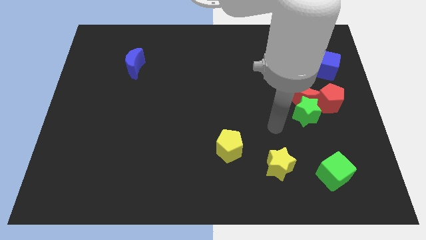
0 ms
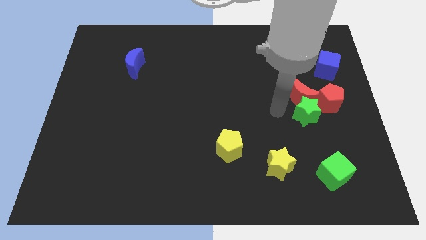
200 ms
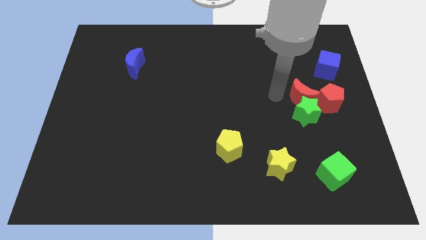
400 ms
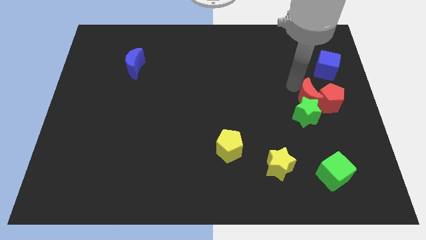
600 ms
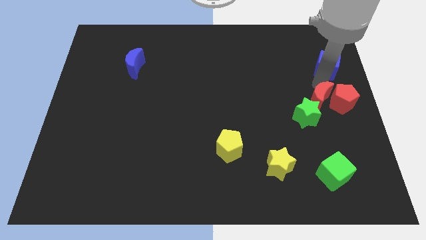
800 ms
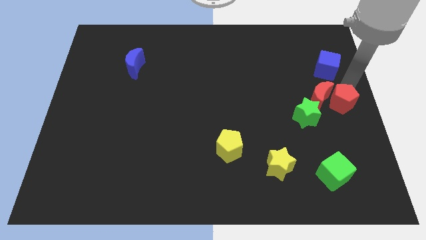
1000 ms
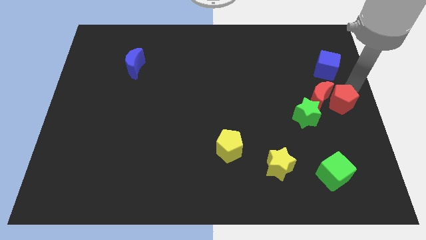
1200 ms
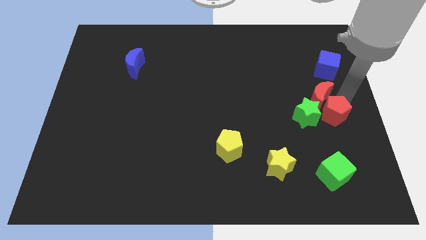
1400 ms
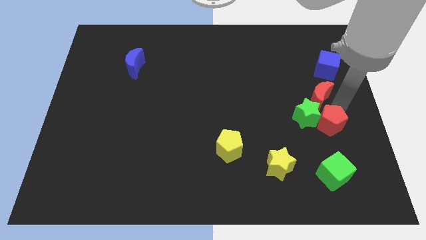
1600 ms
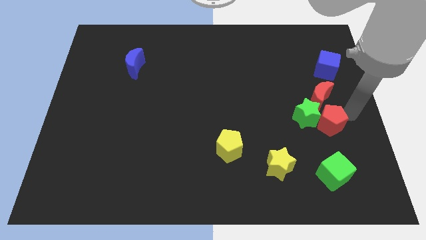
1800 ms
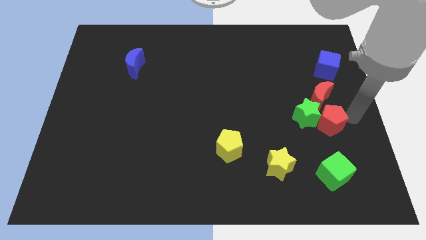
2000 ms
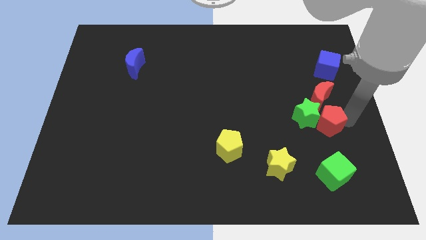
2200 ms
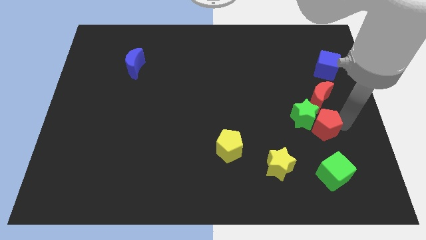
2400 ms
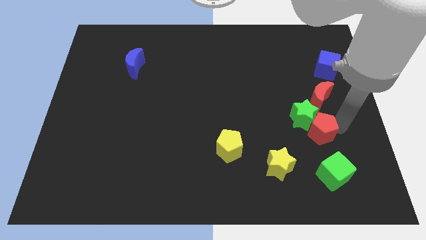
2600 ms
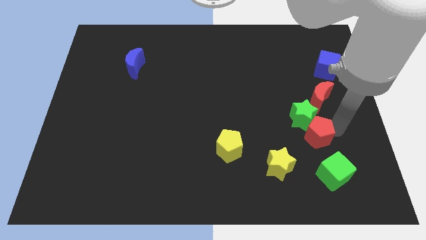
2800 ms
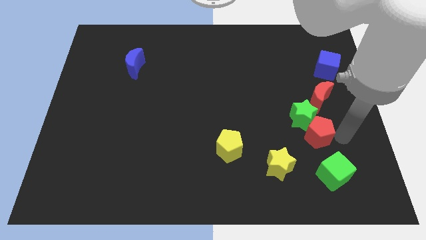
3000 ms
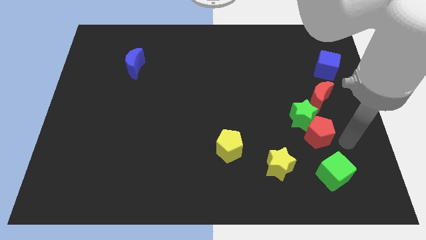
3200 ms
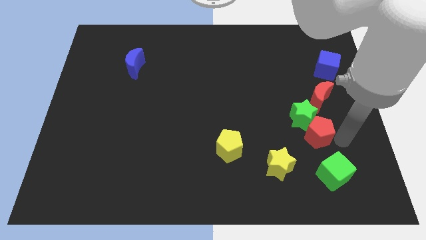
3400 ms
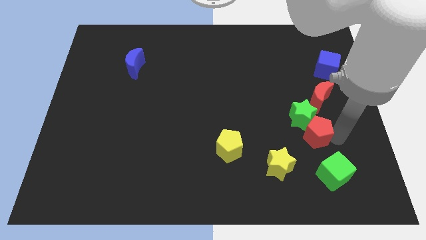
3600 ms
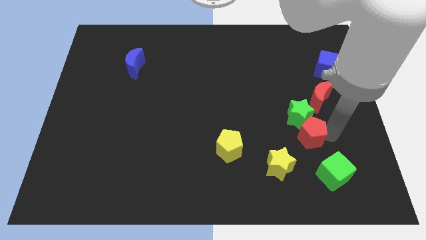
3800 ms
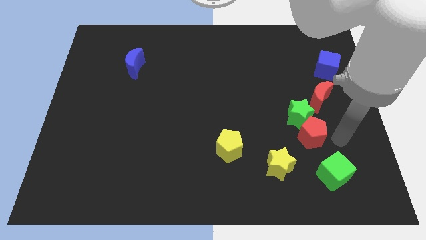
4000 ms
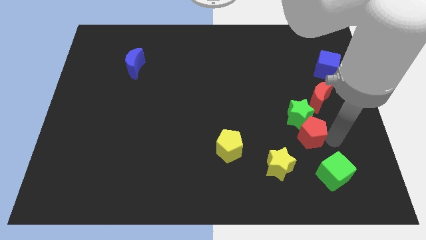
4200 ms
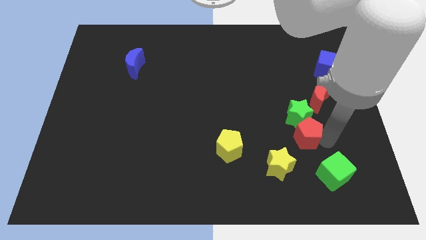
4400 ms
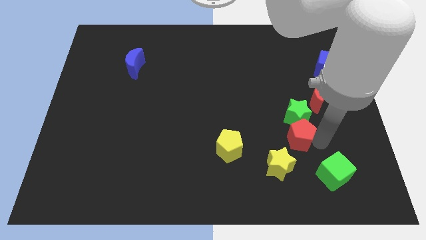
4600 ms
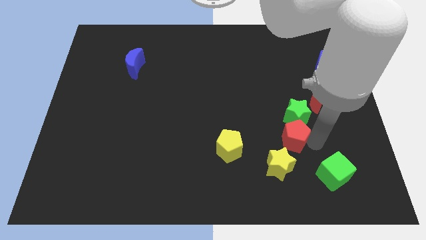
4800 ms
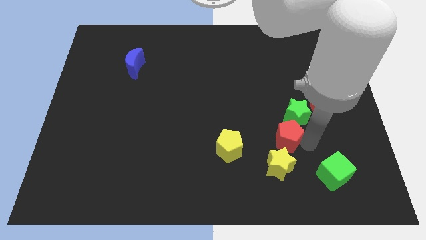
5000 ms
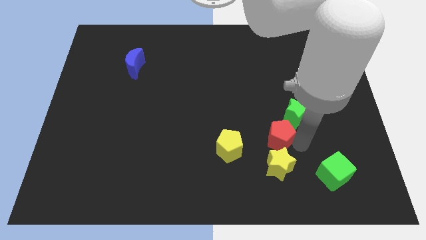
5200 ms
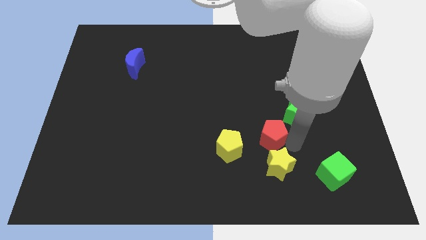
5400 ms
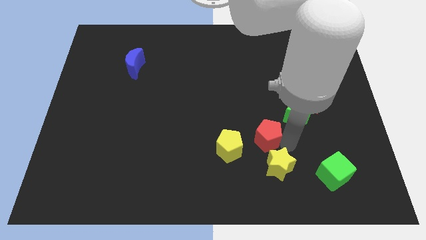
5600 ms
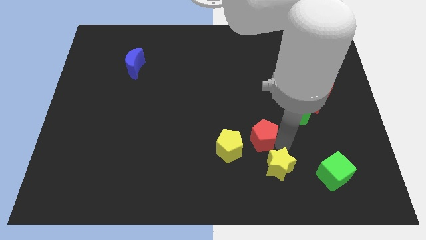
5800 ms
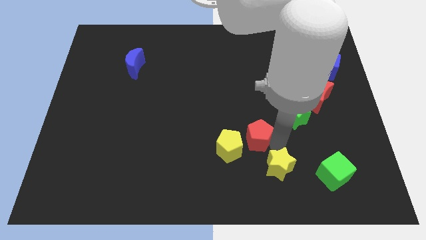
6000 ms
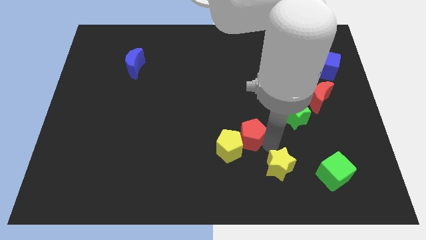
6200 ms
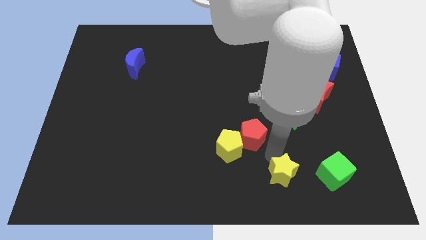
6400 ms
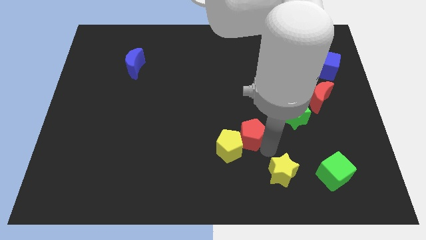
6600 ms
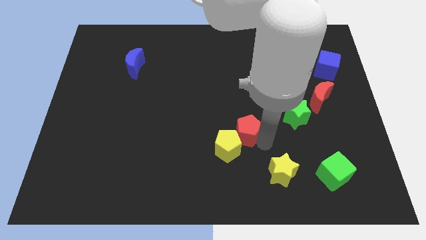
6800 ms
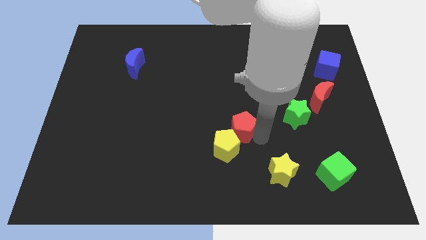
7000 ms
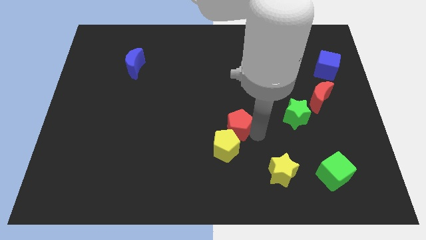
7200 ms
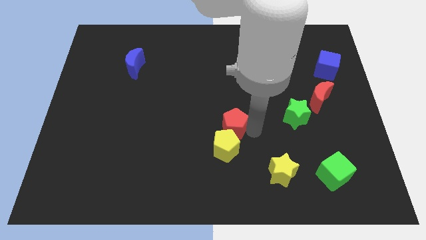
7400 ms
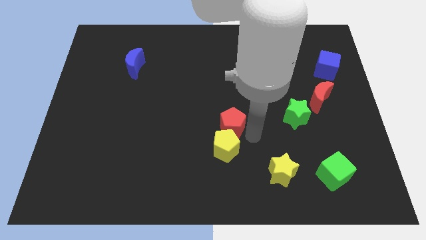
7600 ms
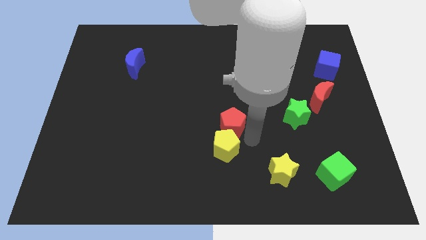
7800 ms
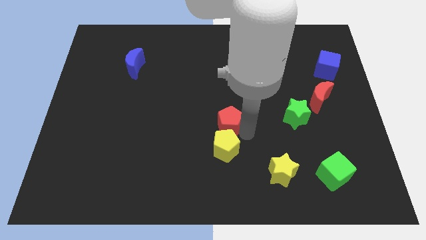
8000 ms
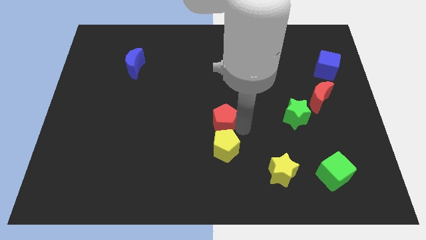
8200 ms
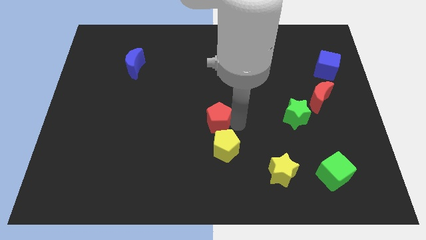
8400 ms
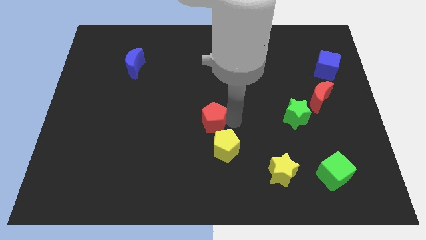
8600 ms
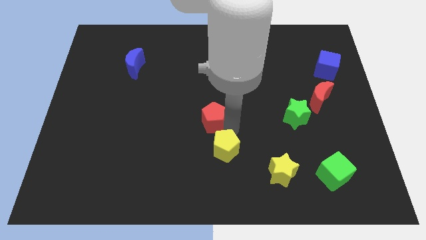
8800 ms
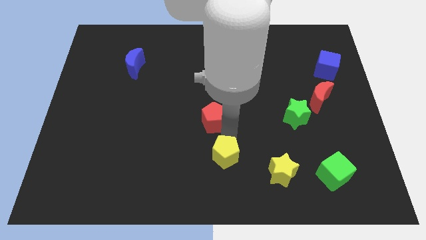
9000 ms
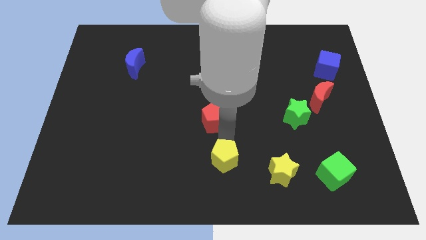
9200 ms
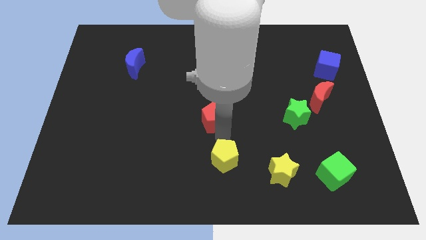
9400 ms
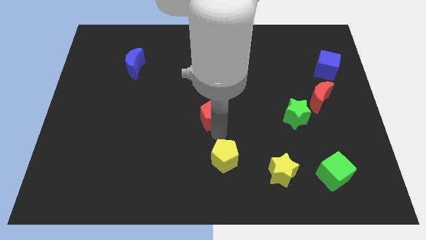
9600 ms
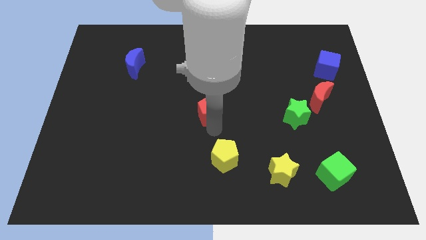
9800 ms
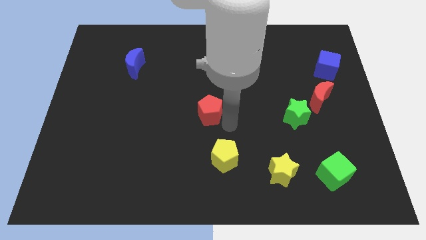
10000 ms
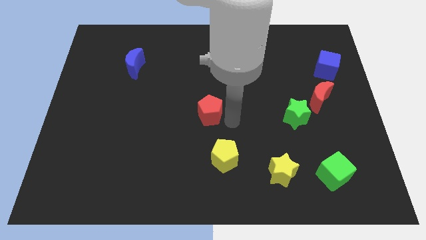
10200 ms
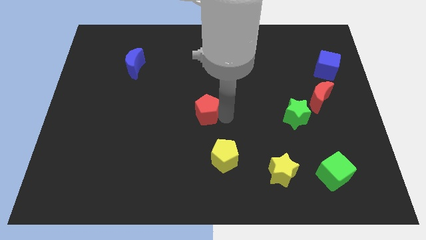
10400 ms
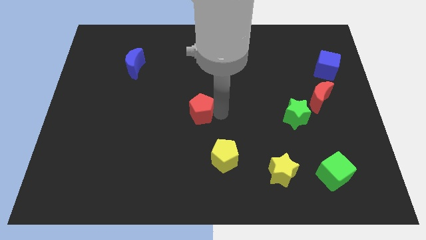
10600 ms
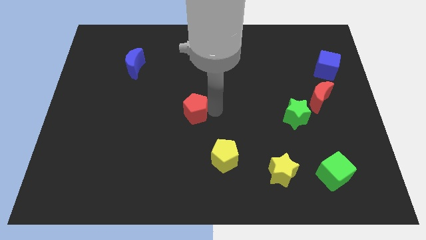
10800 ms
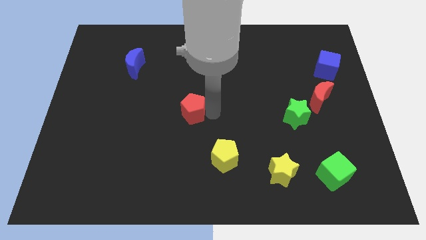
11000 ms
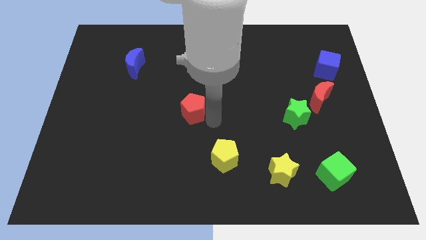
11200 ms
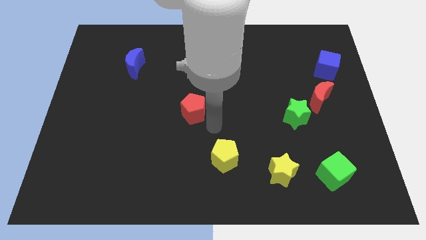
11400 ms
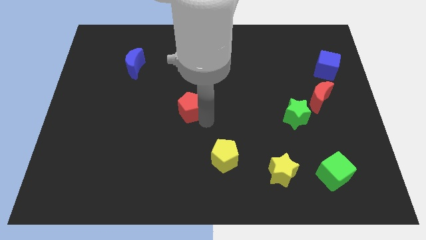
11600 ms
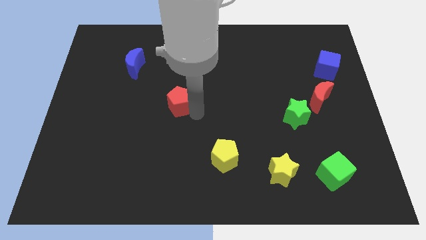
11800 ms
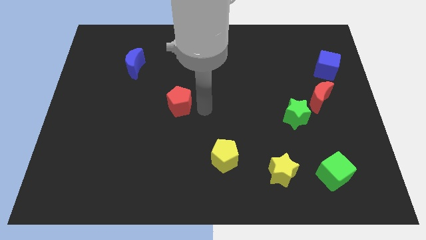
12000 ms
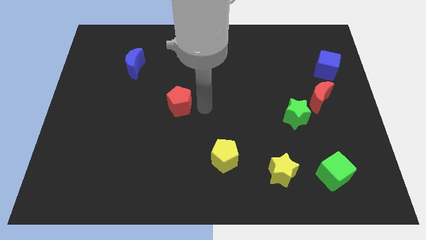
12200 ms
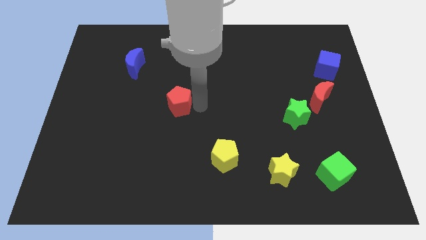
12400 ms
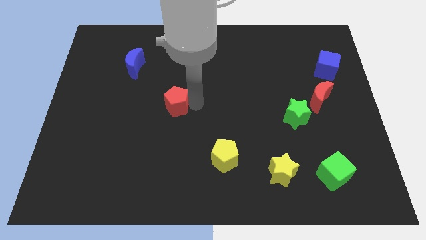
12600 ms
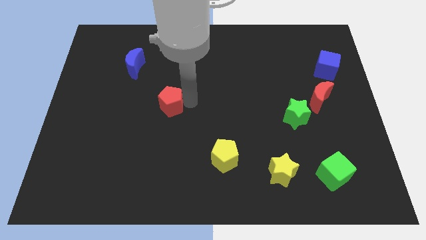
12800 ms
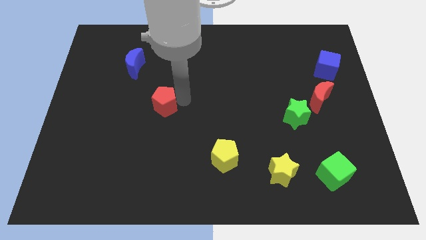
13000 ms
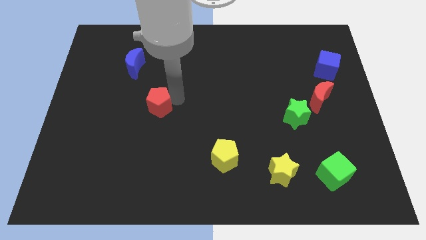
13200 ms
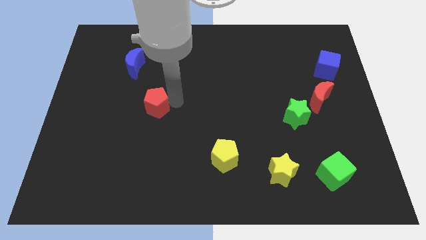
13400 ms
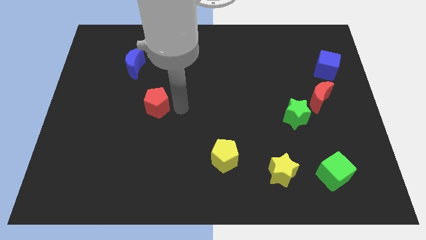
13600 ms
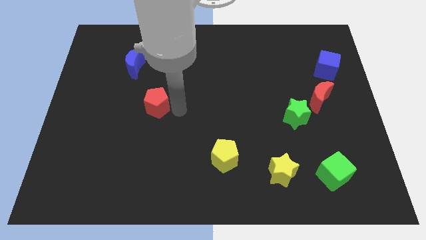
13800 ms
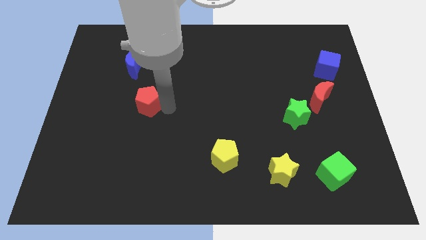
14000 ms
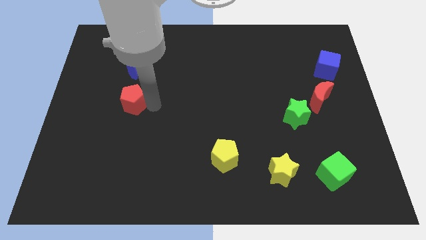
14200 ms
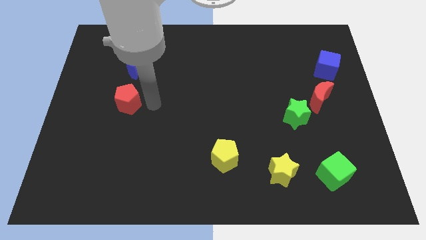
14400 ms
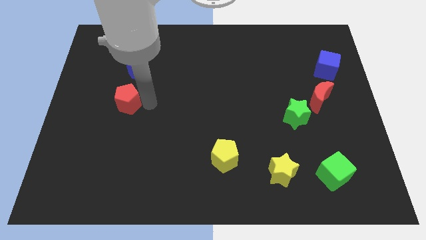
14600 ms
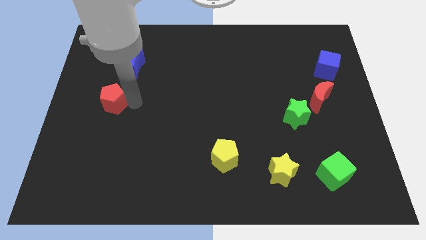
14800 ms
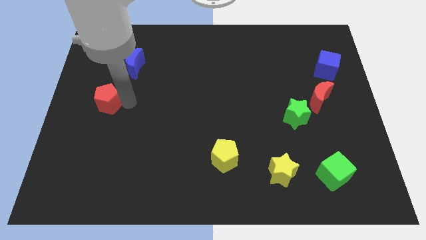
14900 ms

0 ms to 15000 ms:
slide the red pentagon to the left side
